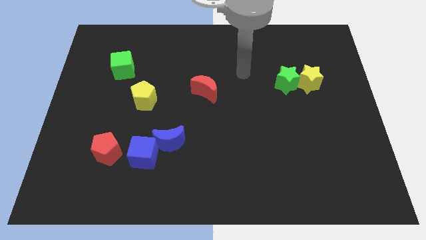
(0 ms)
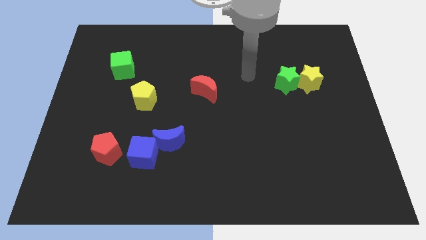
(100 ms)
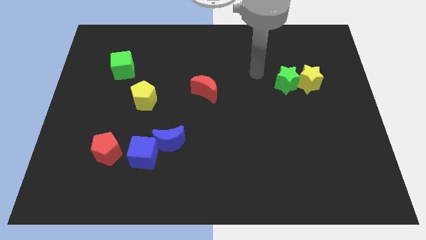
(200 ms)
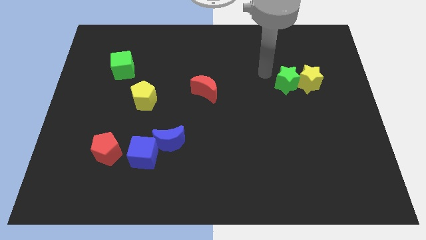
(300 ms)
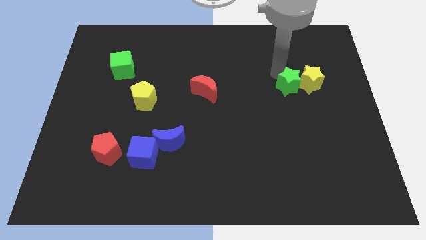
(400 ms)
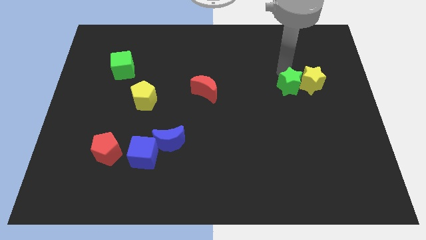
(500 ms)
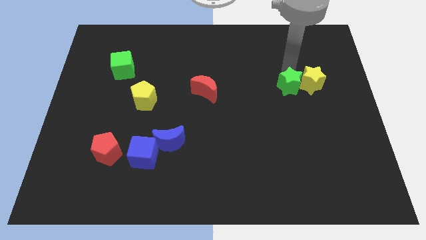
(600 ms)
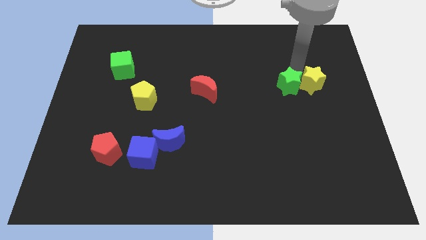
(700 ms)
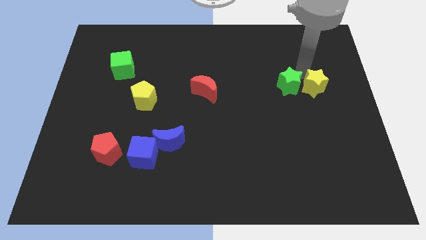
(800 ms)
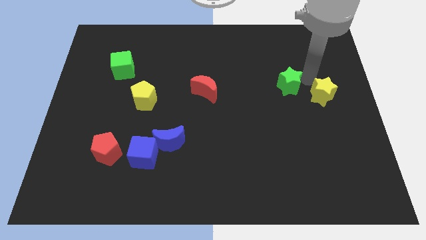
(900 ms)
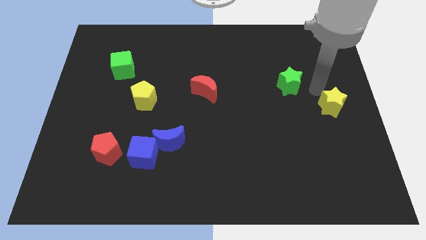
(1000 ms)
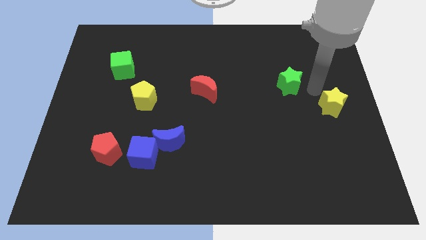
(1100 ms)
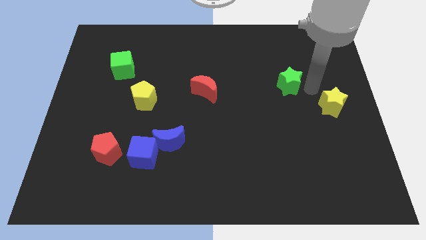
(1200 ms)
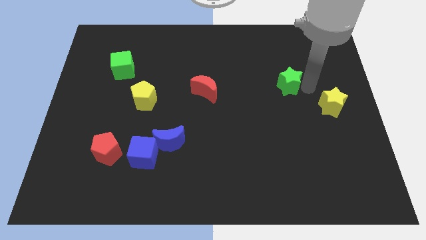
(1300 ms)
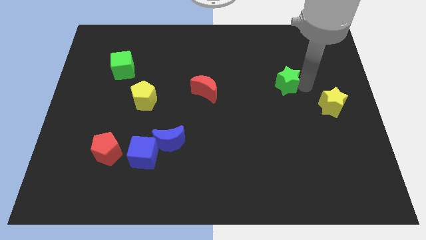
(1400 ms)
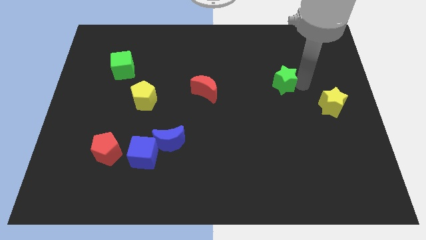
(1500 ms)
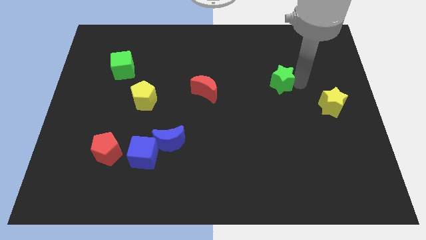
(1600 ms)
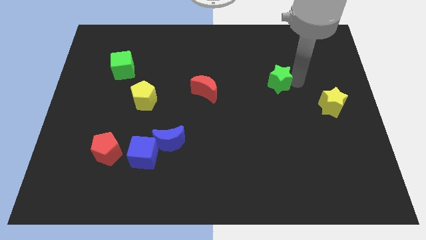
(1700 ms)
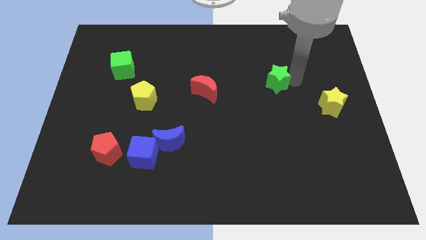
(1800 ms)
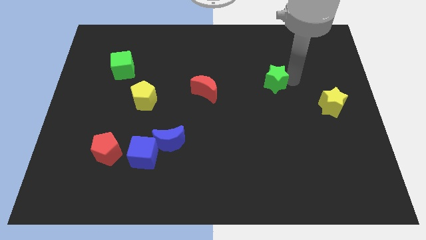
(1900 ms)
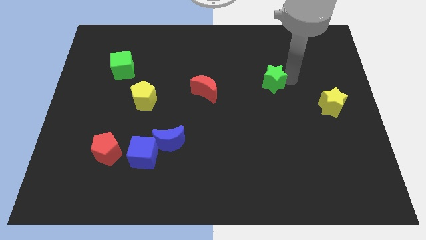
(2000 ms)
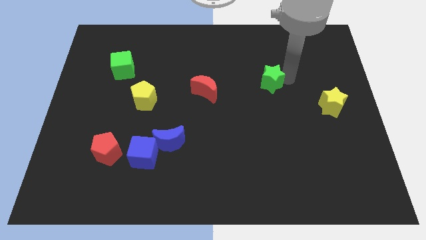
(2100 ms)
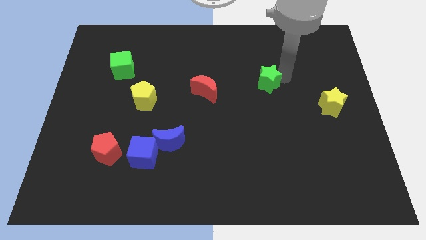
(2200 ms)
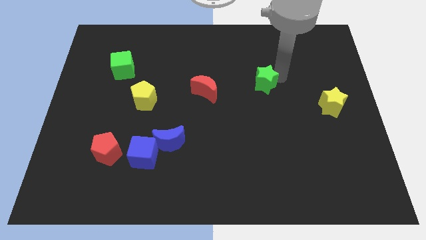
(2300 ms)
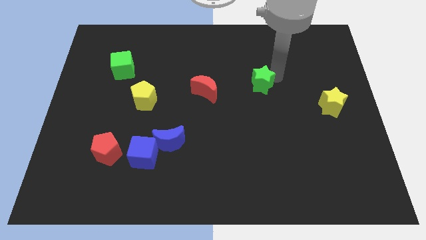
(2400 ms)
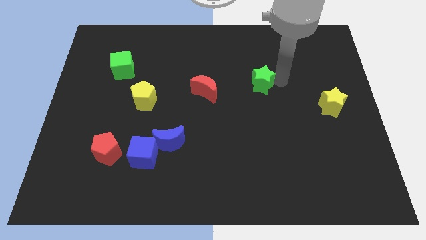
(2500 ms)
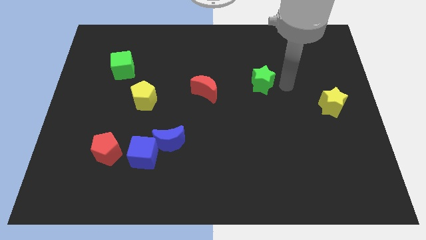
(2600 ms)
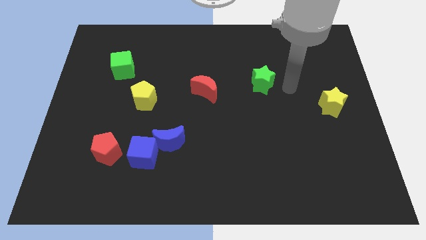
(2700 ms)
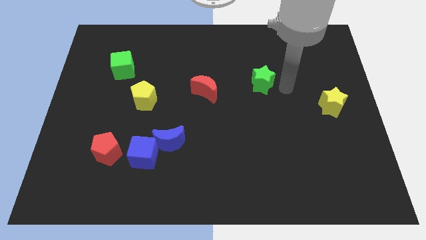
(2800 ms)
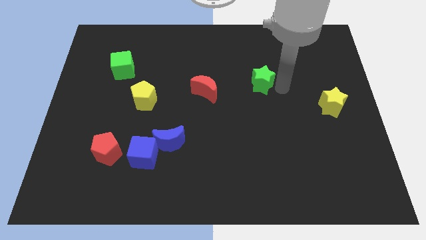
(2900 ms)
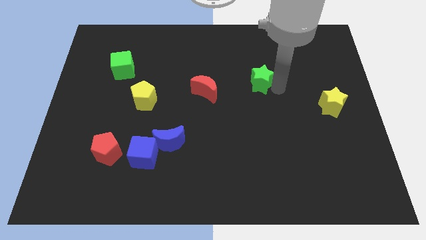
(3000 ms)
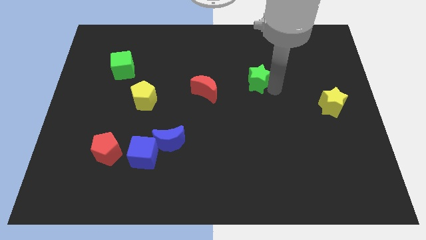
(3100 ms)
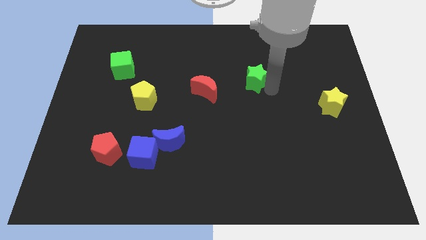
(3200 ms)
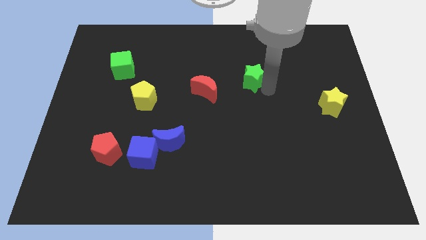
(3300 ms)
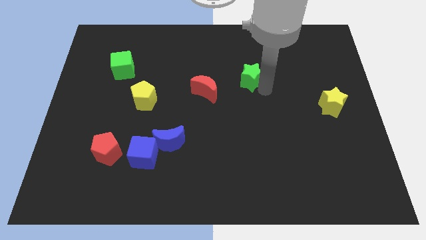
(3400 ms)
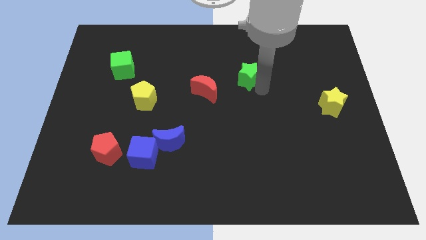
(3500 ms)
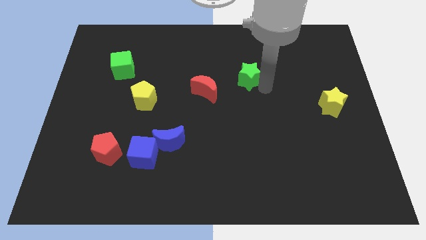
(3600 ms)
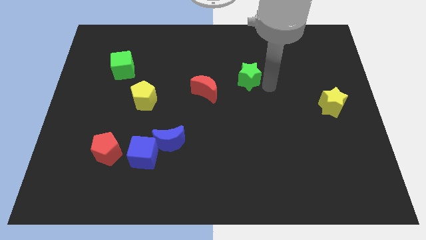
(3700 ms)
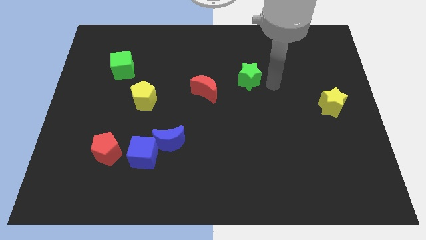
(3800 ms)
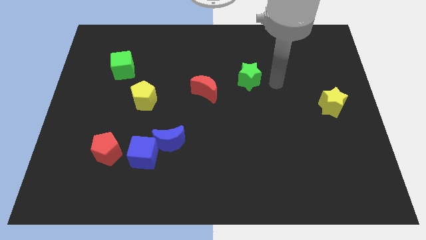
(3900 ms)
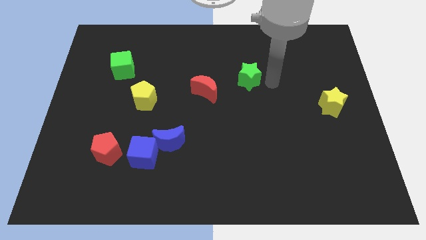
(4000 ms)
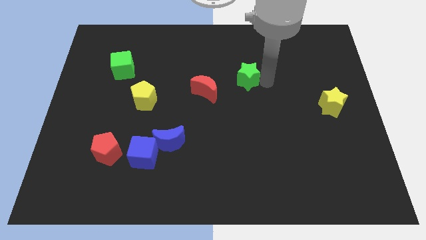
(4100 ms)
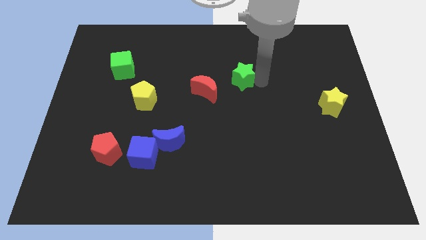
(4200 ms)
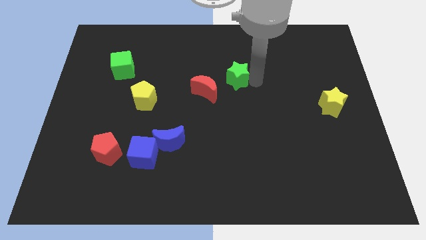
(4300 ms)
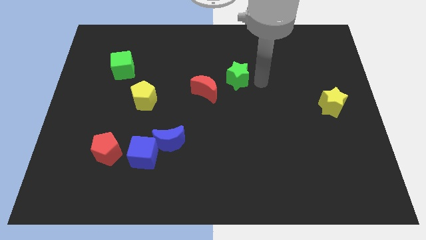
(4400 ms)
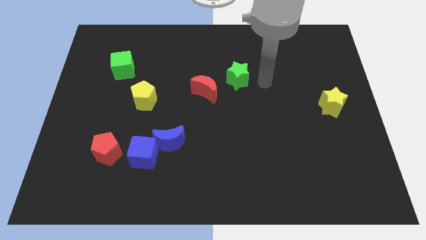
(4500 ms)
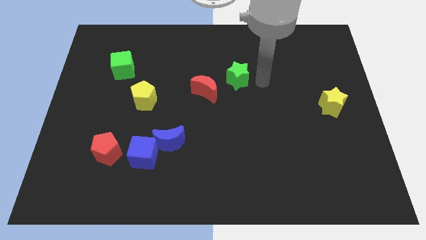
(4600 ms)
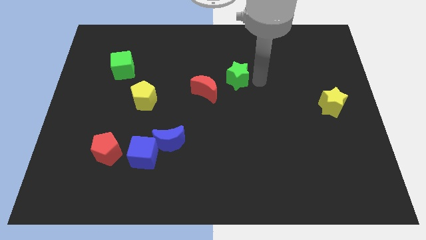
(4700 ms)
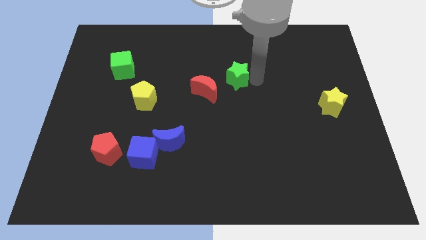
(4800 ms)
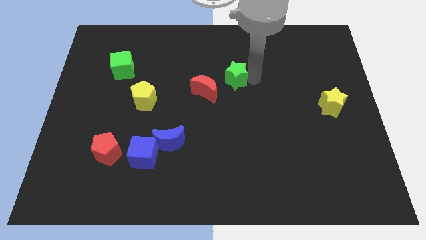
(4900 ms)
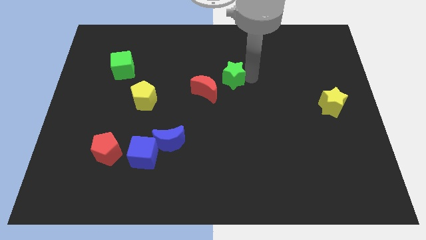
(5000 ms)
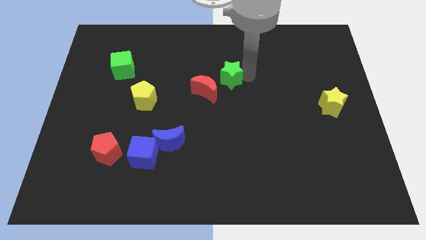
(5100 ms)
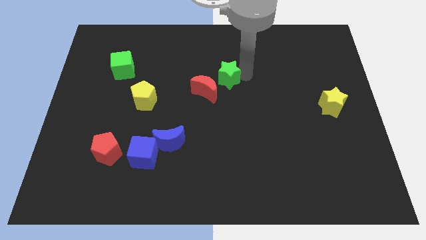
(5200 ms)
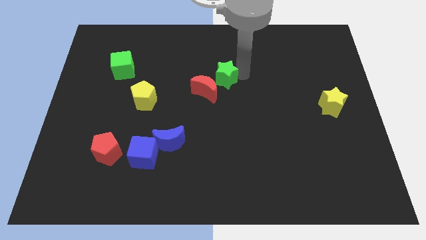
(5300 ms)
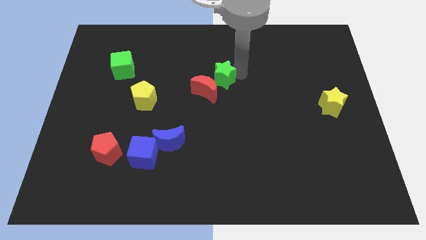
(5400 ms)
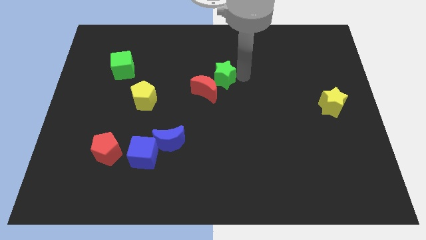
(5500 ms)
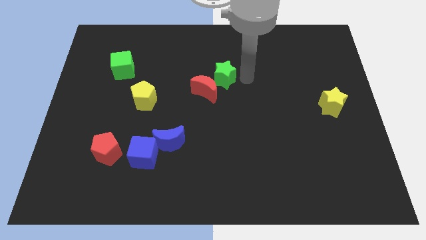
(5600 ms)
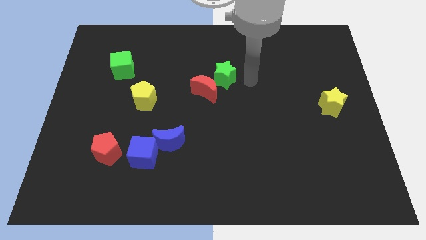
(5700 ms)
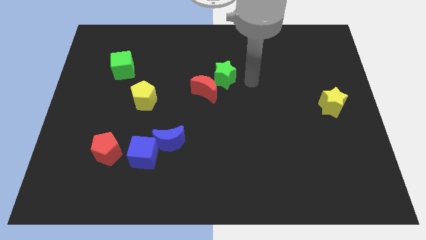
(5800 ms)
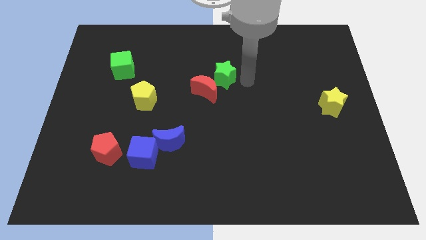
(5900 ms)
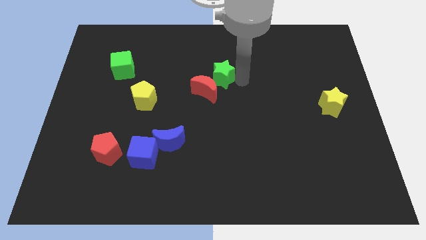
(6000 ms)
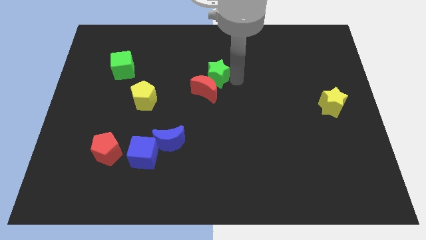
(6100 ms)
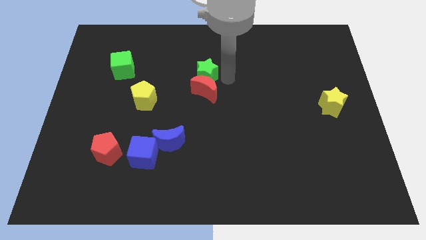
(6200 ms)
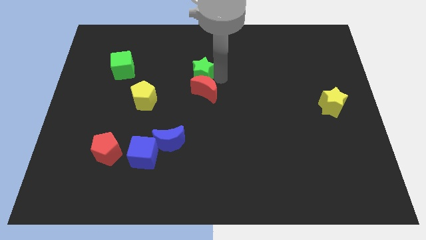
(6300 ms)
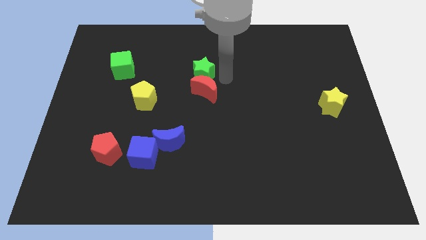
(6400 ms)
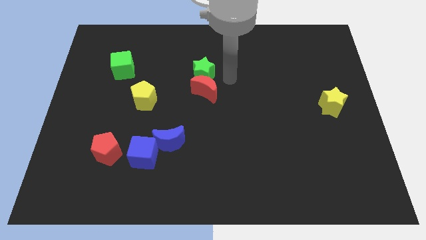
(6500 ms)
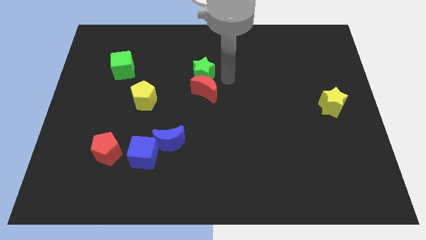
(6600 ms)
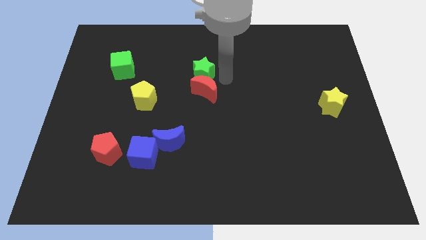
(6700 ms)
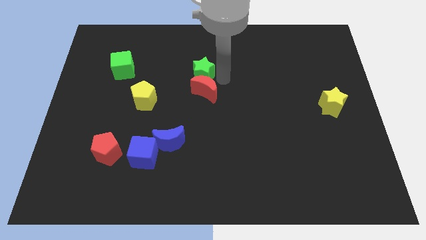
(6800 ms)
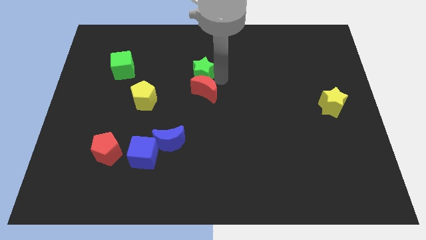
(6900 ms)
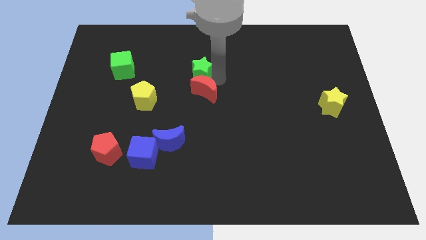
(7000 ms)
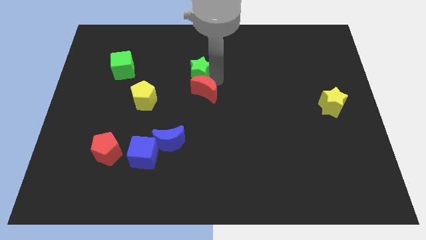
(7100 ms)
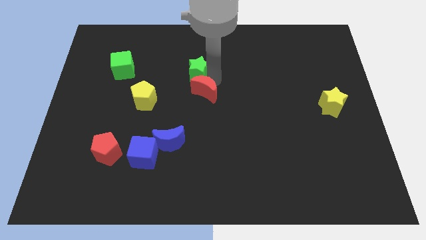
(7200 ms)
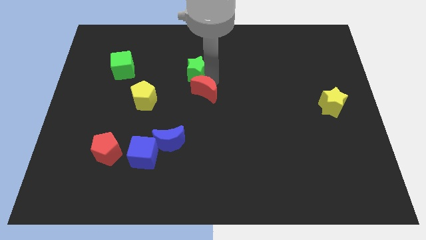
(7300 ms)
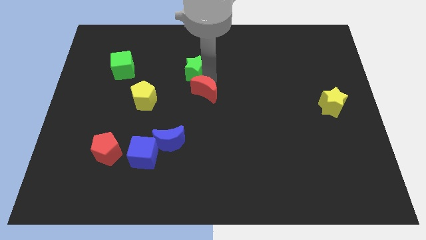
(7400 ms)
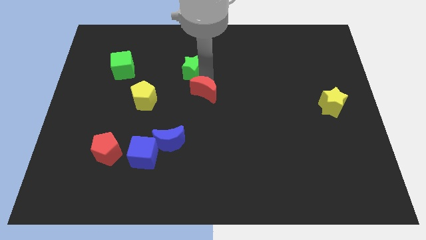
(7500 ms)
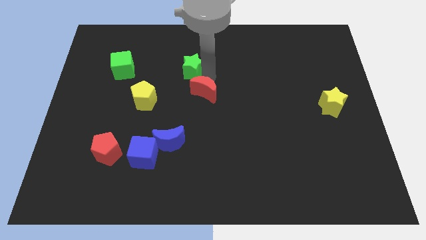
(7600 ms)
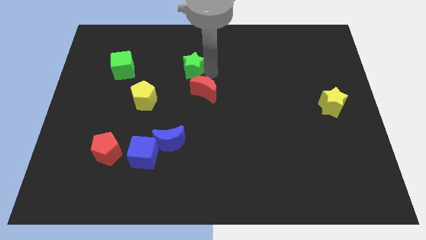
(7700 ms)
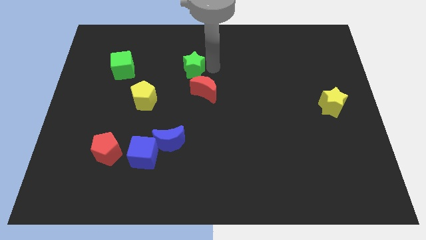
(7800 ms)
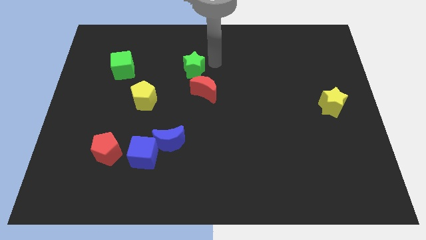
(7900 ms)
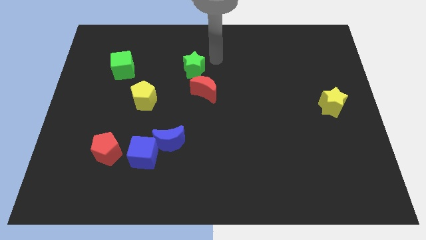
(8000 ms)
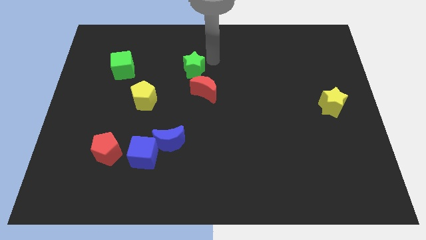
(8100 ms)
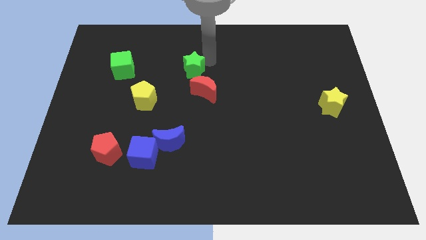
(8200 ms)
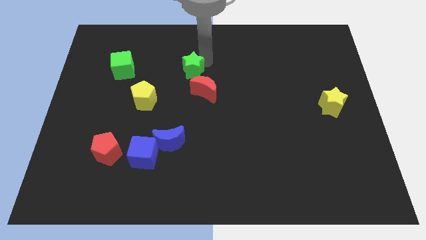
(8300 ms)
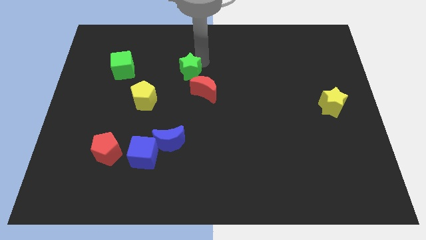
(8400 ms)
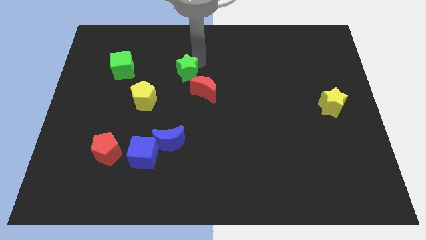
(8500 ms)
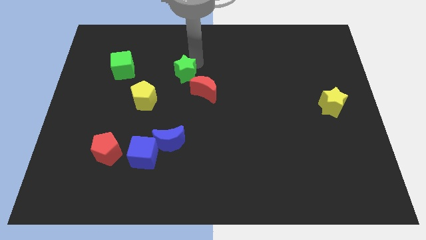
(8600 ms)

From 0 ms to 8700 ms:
move the green star diagonally up and to the right of the yellow pentagon
